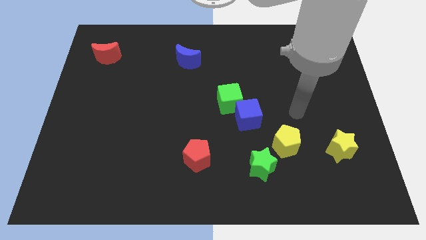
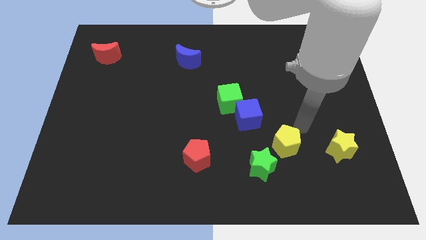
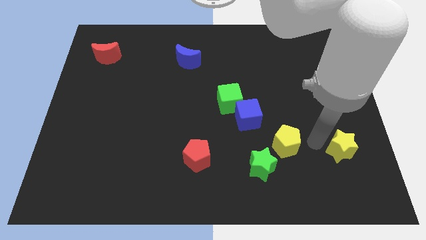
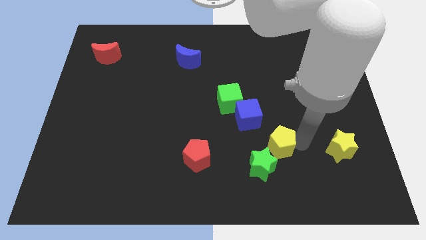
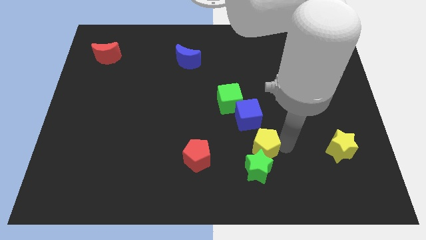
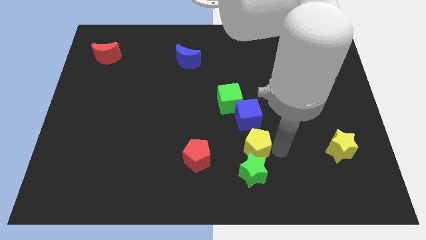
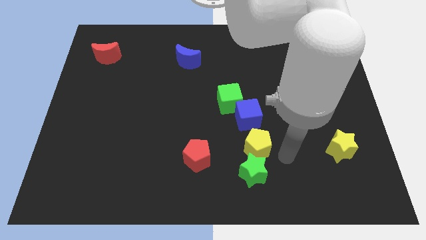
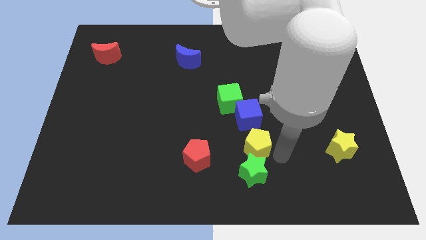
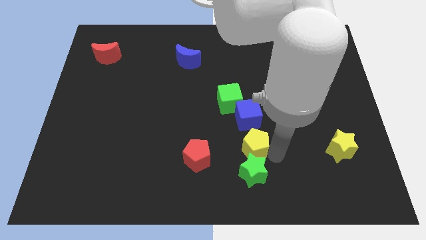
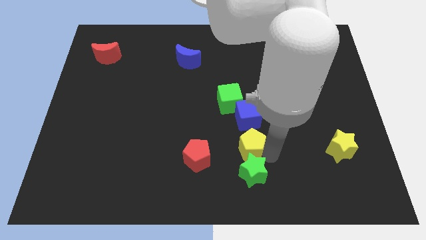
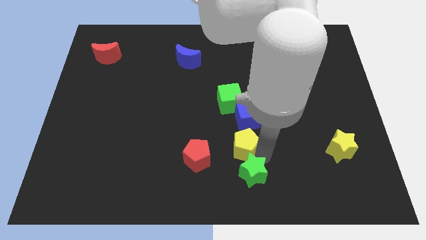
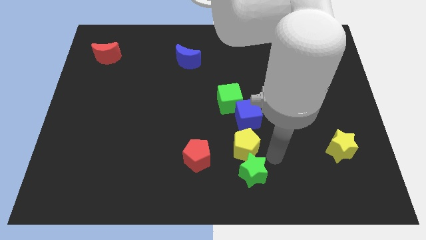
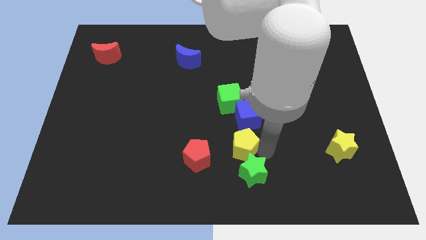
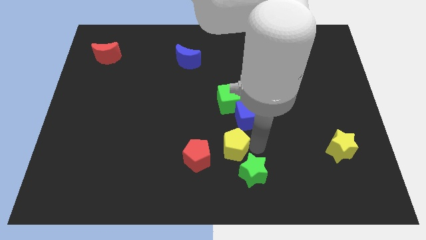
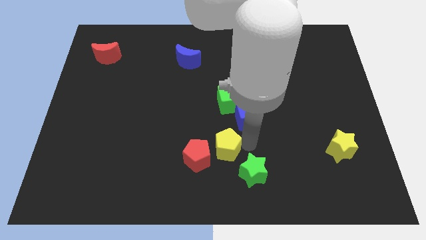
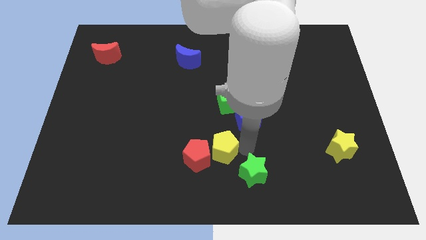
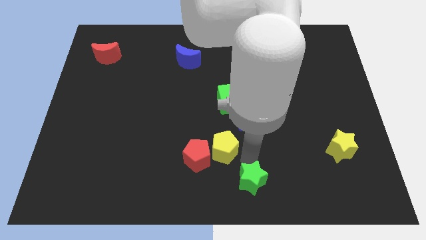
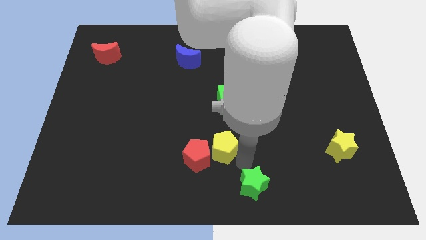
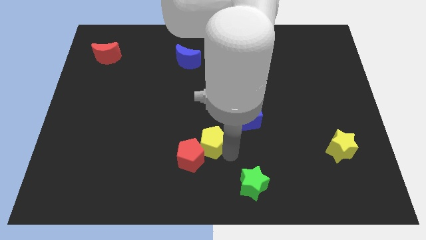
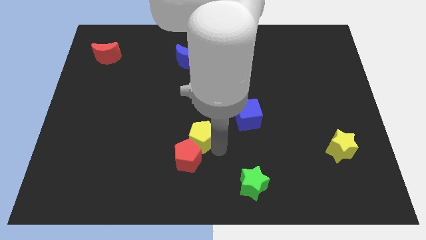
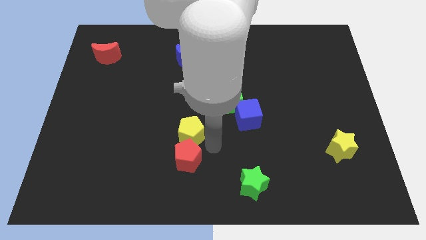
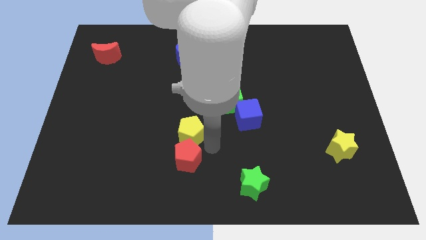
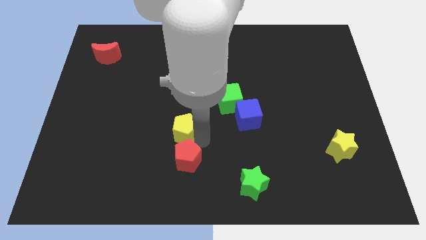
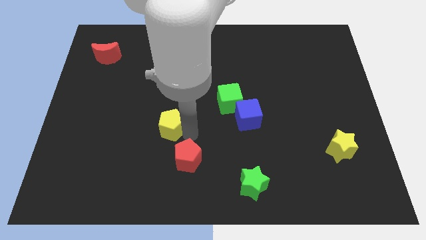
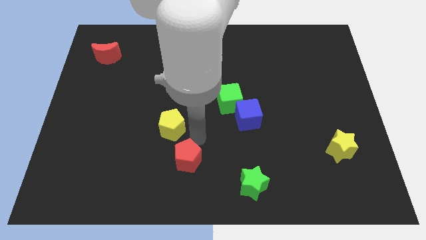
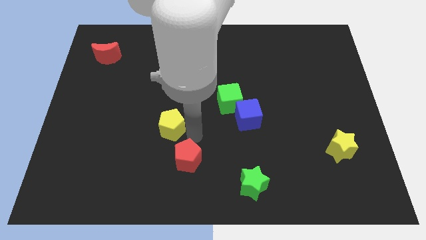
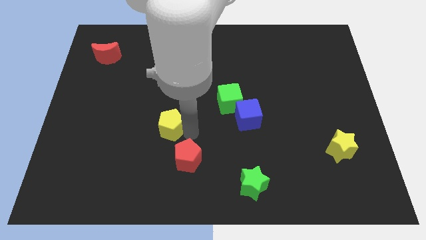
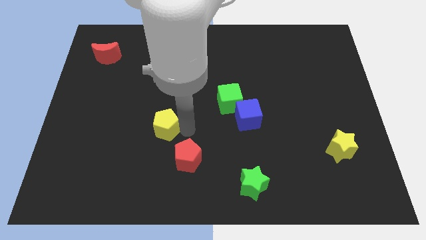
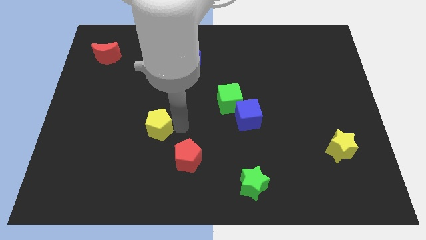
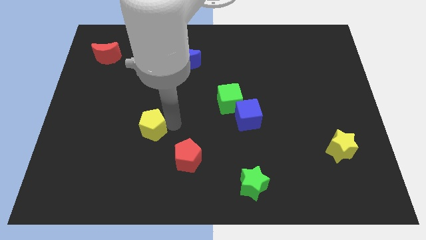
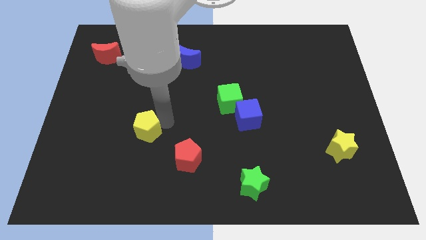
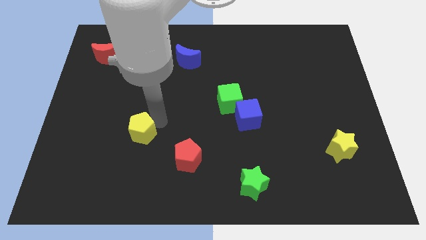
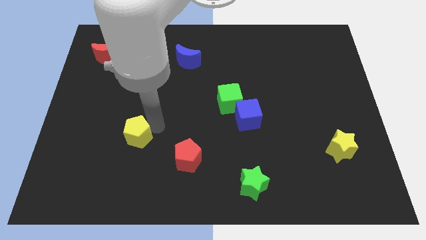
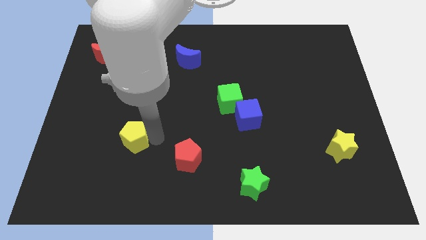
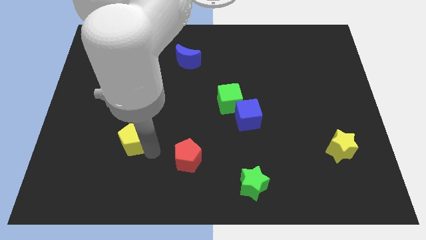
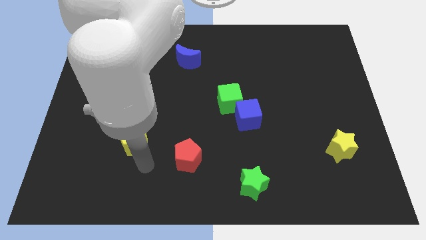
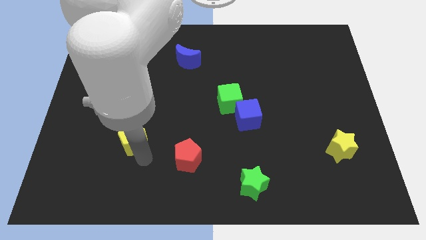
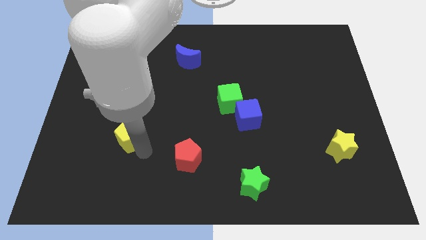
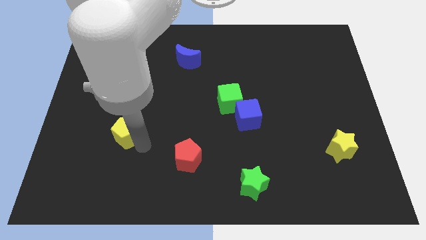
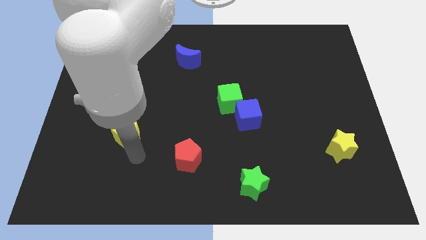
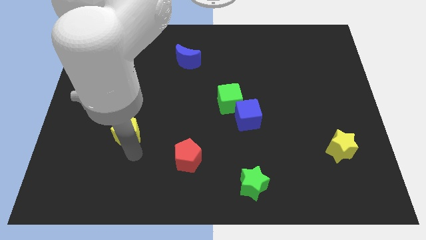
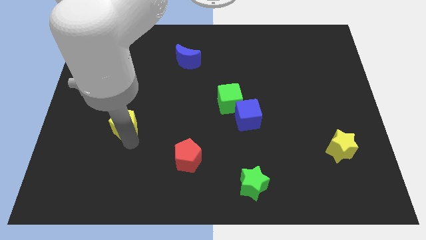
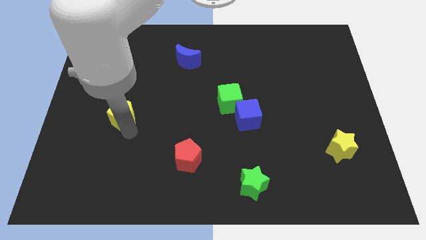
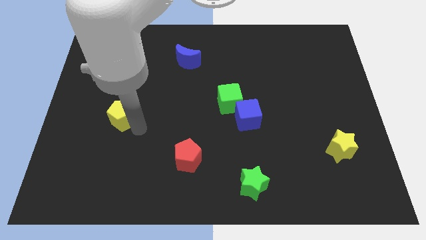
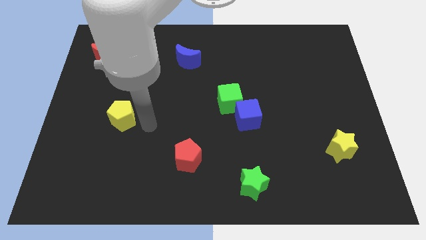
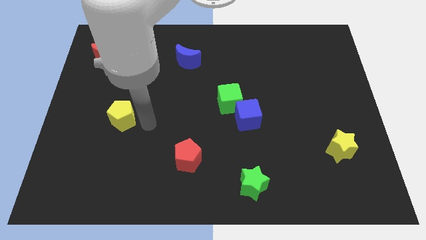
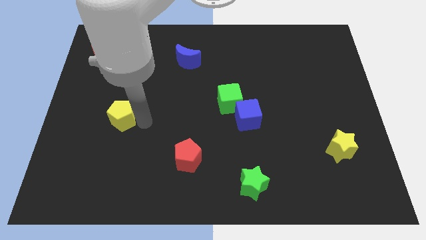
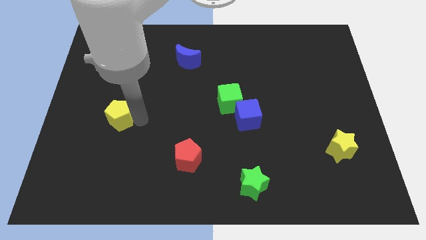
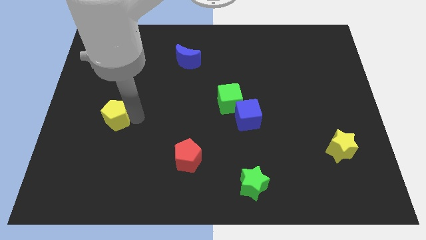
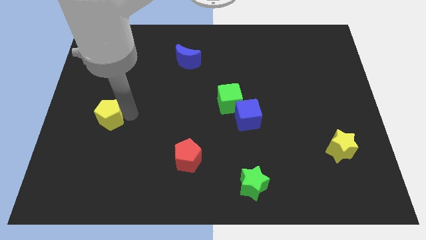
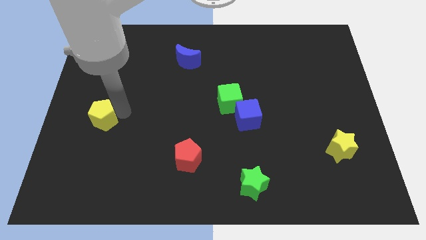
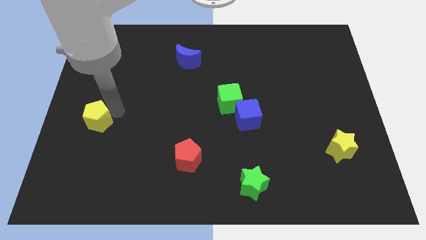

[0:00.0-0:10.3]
put the yellow pentagon to the left side of the board

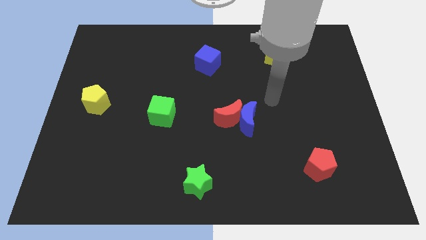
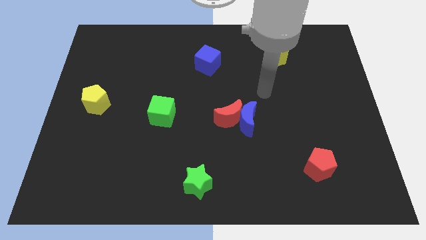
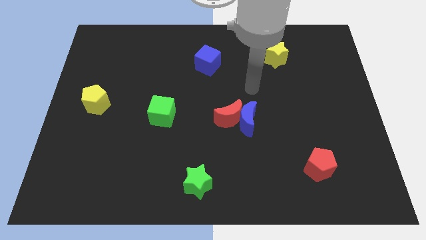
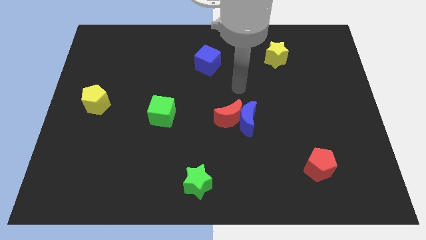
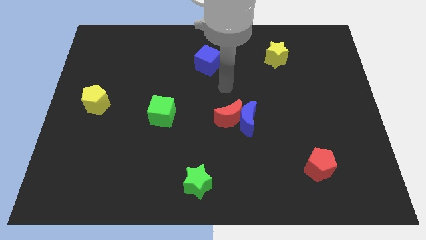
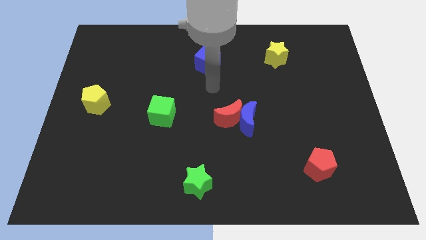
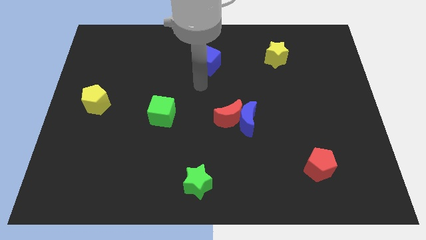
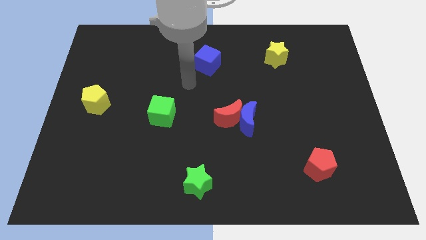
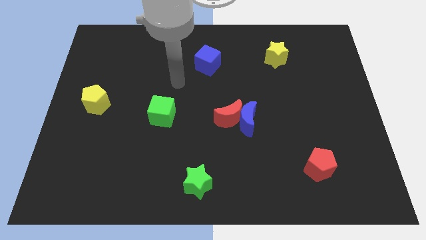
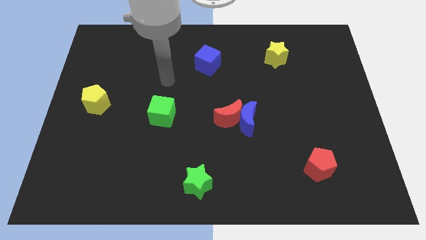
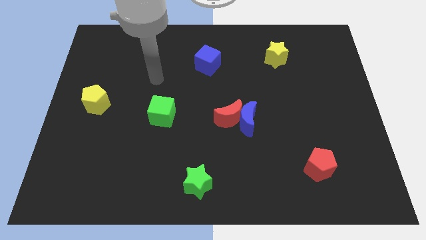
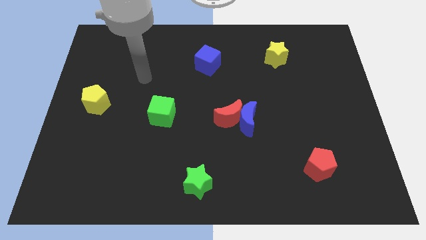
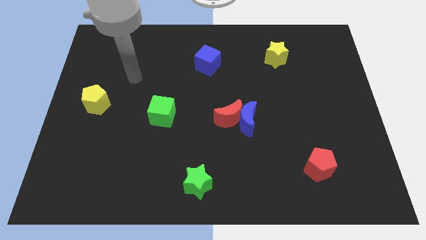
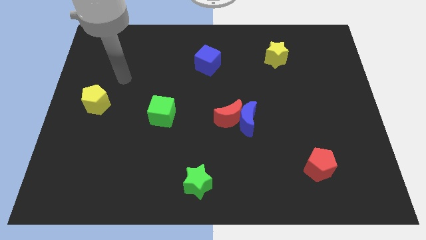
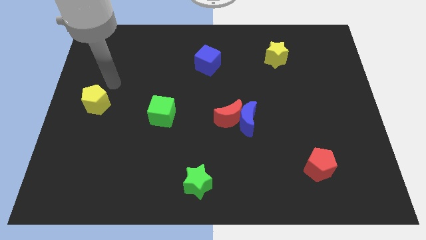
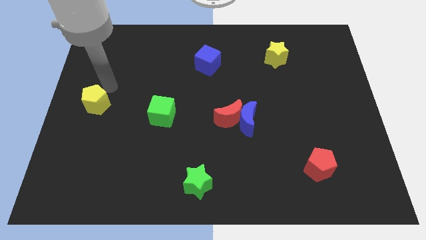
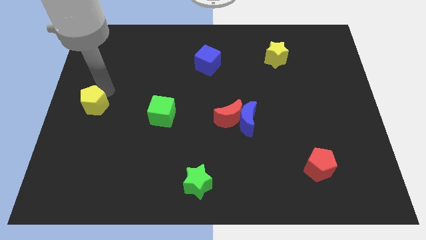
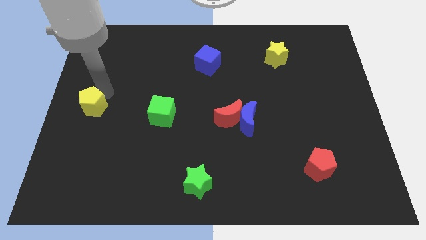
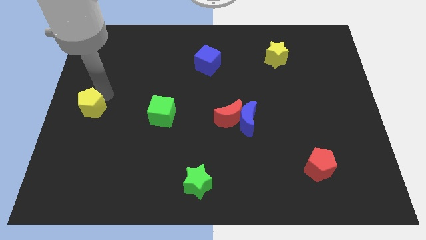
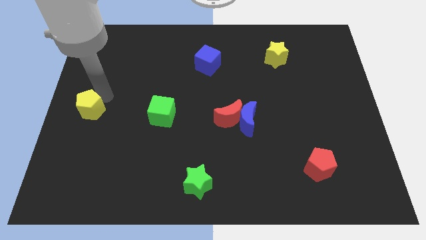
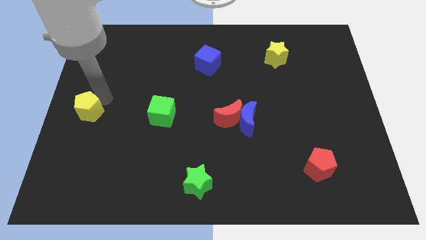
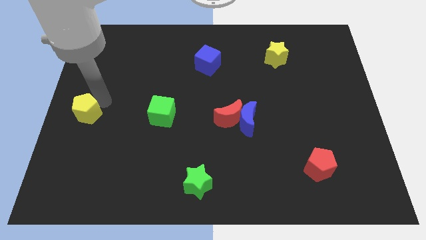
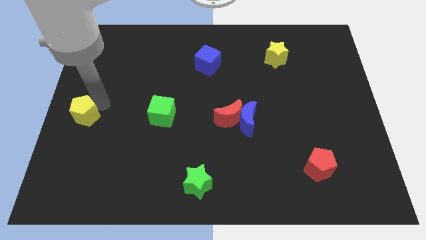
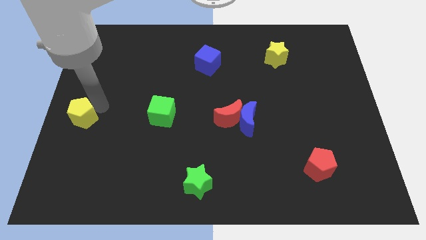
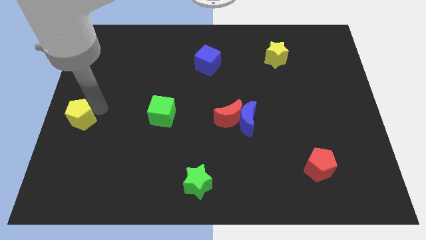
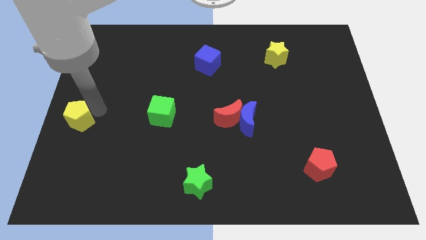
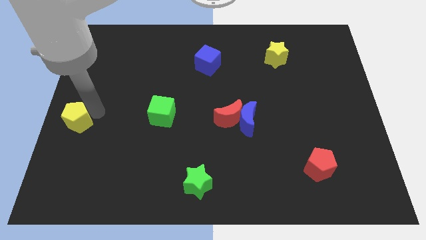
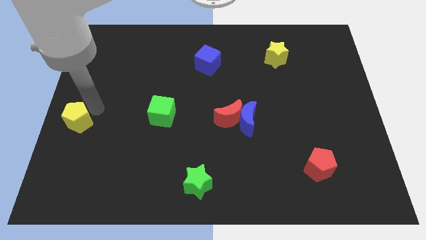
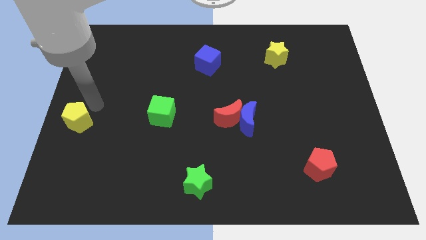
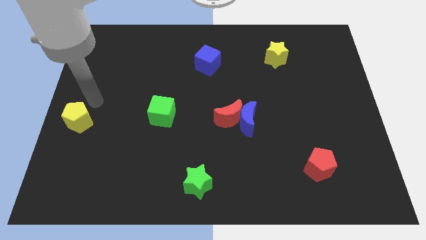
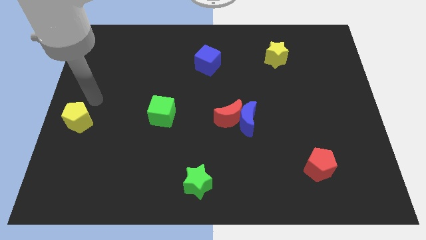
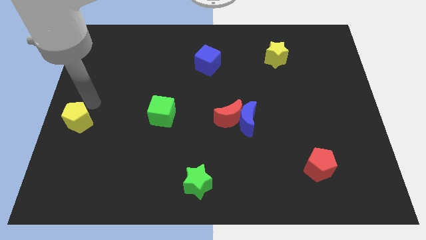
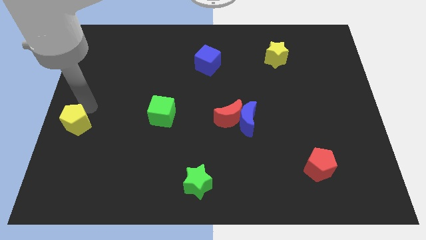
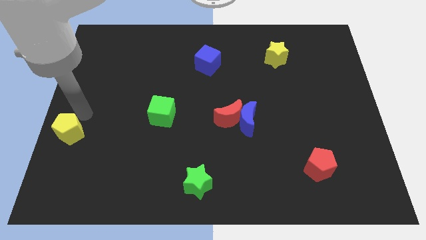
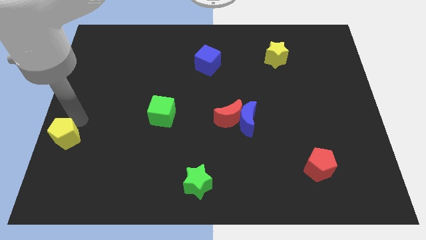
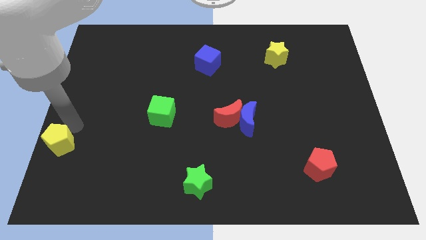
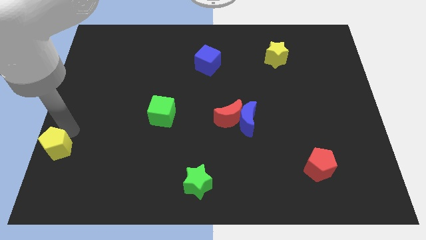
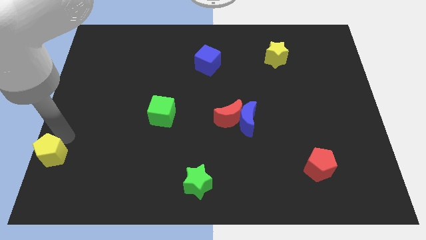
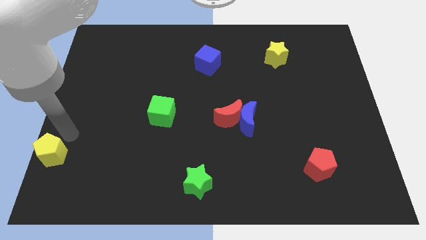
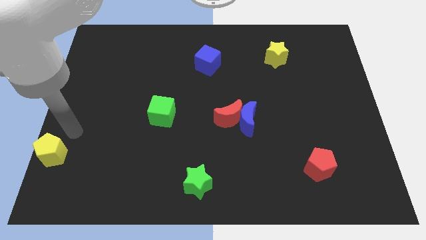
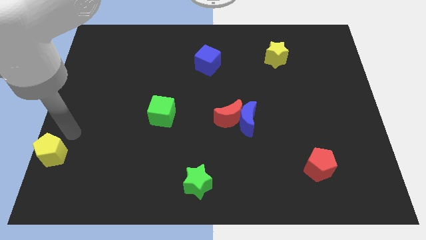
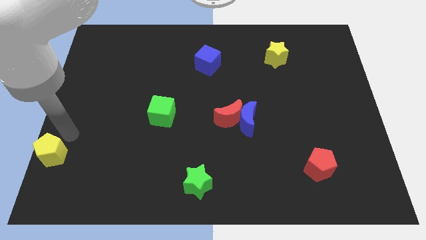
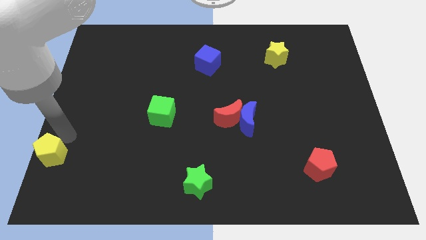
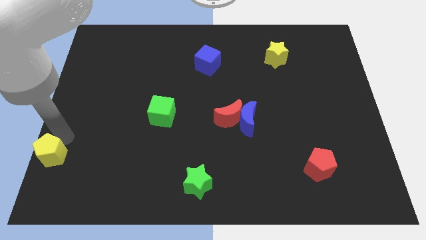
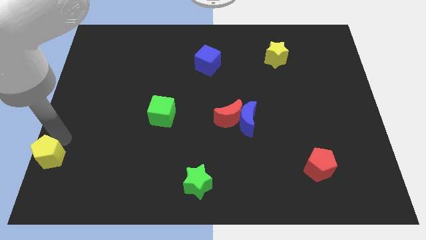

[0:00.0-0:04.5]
push the yellow pentagon to the bottom left
